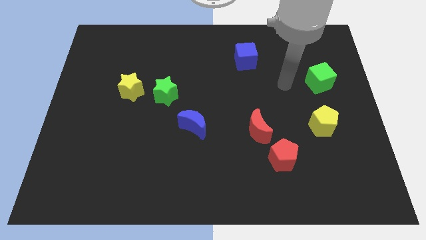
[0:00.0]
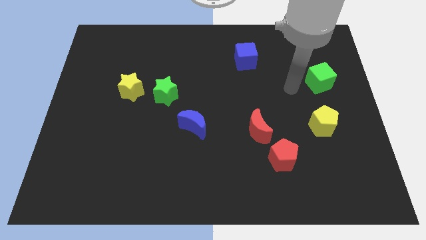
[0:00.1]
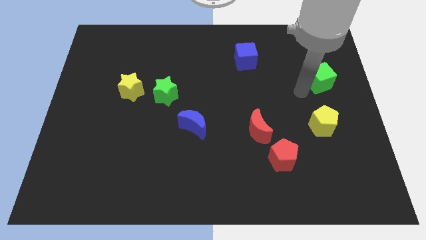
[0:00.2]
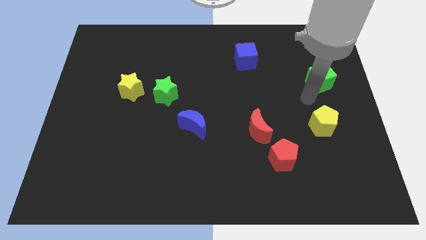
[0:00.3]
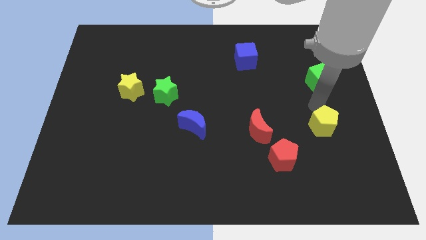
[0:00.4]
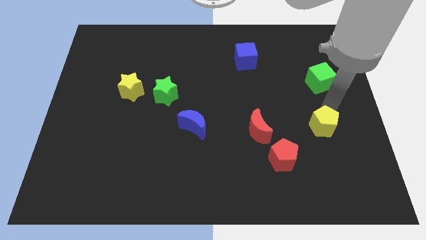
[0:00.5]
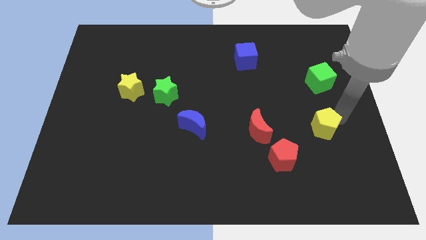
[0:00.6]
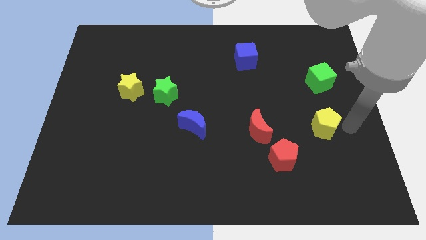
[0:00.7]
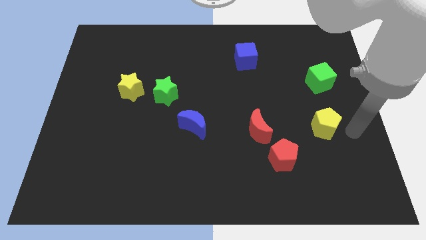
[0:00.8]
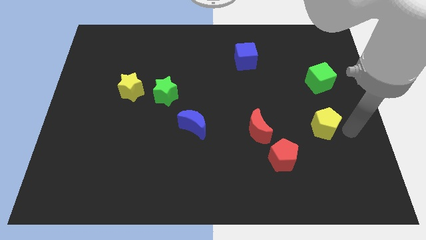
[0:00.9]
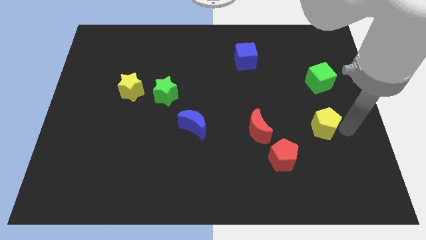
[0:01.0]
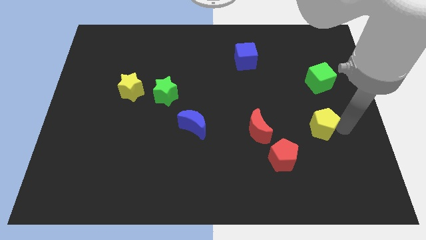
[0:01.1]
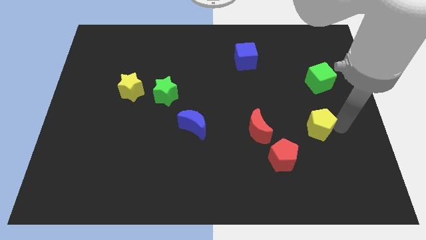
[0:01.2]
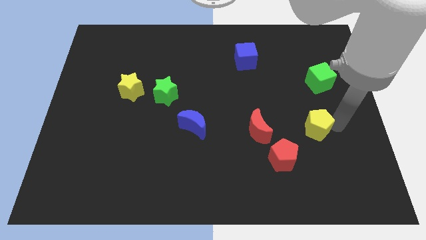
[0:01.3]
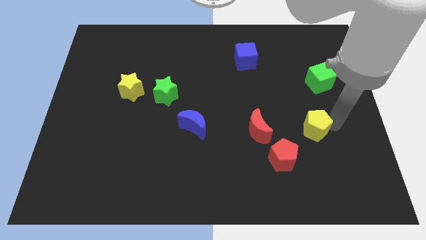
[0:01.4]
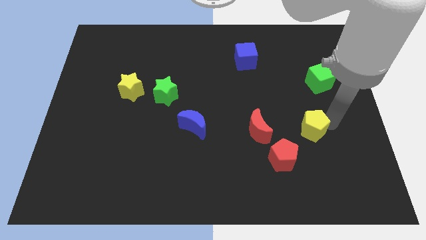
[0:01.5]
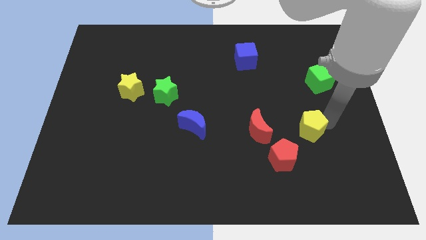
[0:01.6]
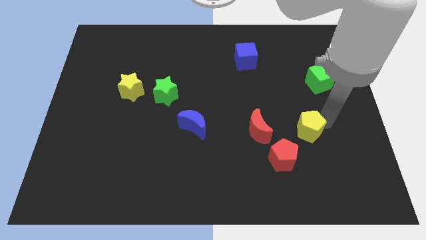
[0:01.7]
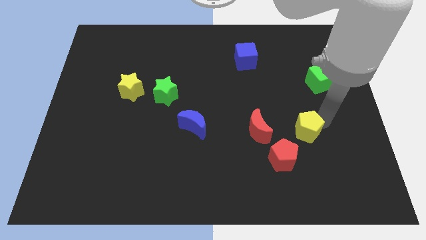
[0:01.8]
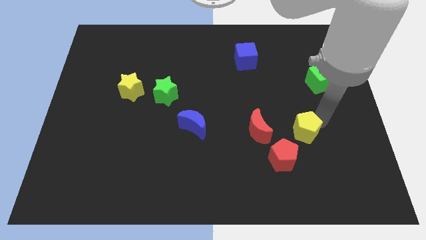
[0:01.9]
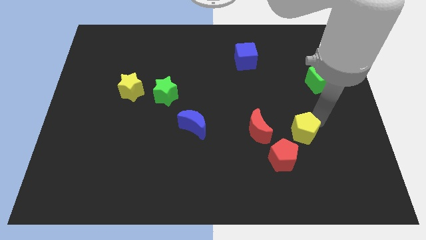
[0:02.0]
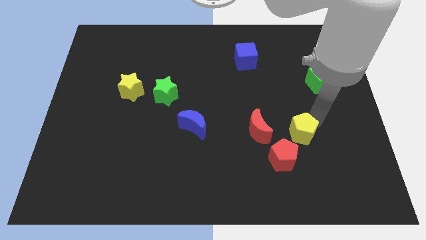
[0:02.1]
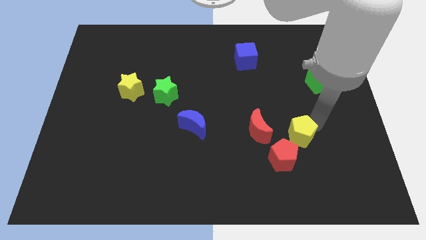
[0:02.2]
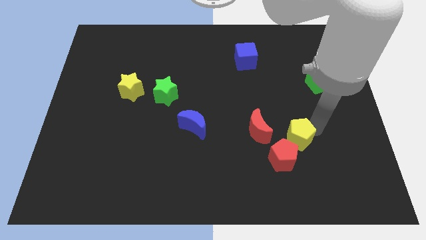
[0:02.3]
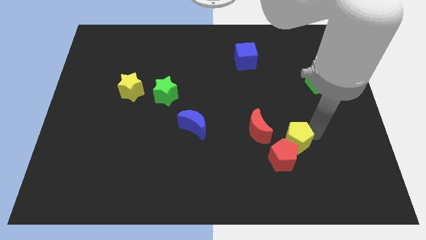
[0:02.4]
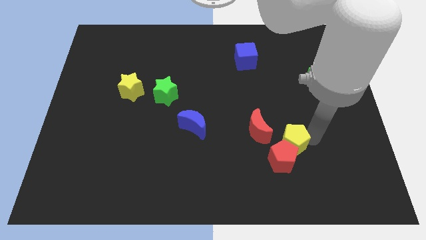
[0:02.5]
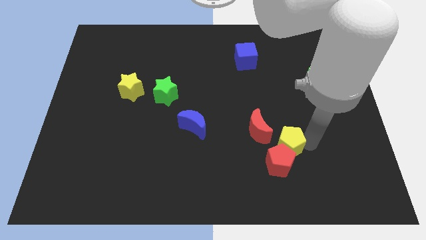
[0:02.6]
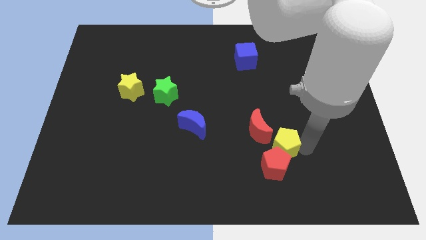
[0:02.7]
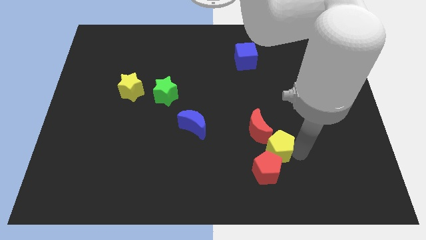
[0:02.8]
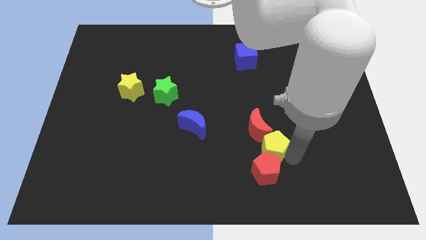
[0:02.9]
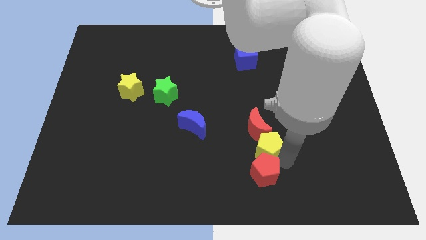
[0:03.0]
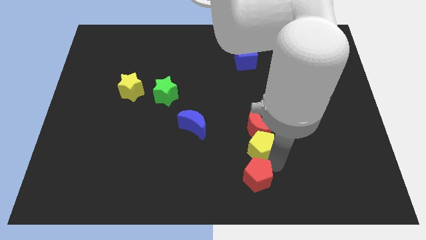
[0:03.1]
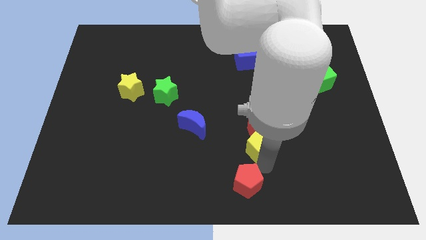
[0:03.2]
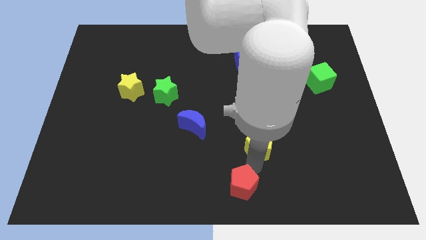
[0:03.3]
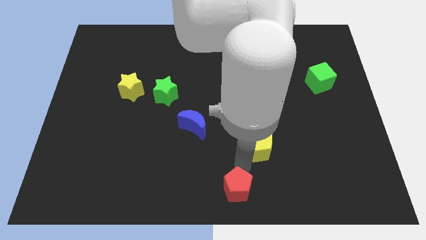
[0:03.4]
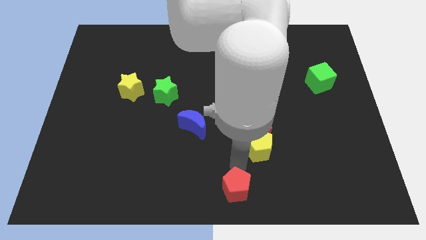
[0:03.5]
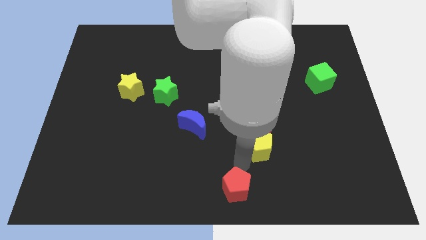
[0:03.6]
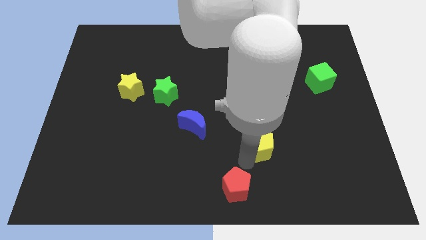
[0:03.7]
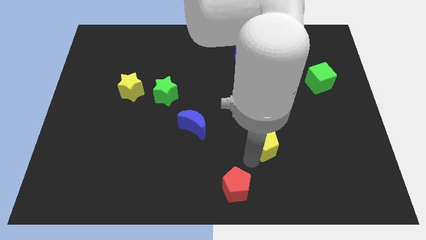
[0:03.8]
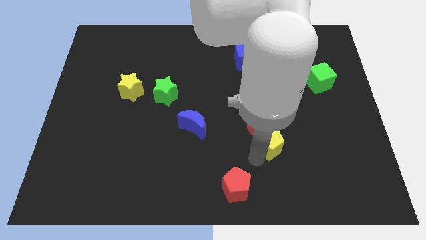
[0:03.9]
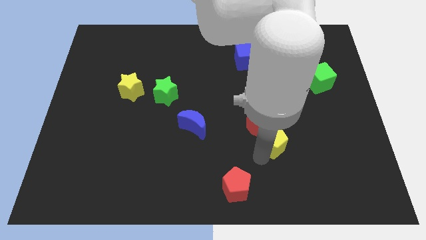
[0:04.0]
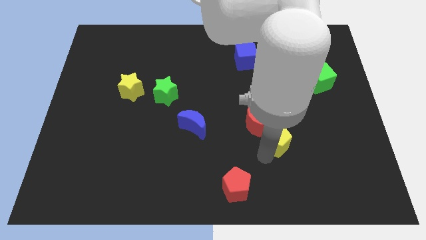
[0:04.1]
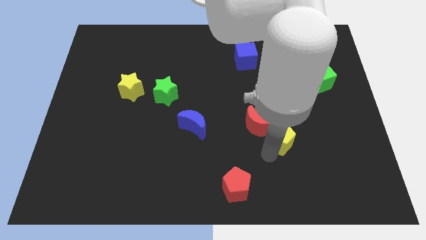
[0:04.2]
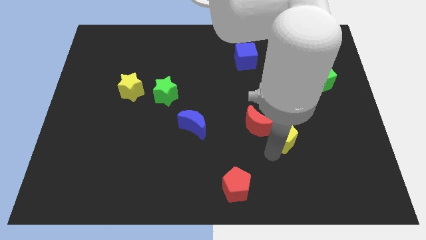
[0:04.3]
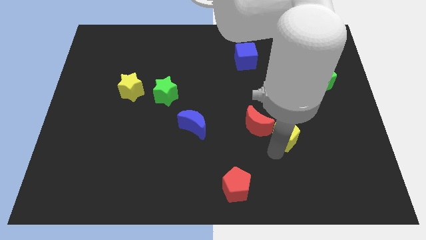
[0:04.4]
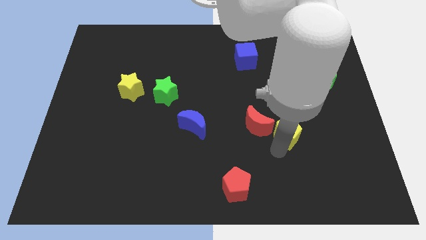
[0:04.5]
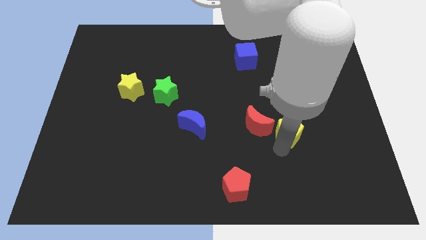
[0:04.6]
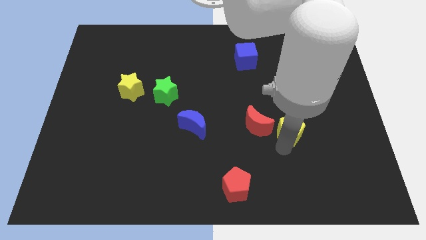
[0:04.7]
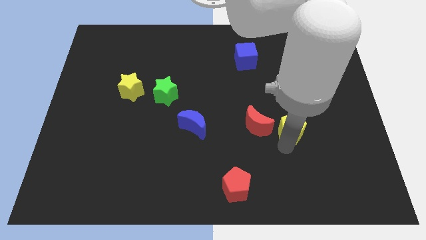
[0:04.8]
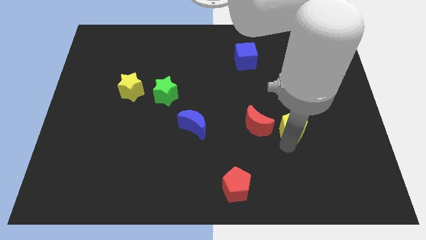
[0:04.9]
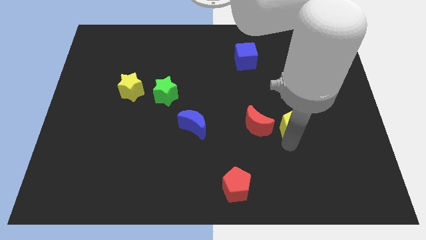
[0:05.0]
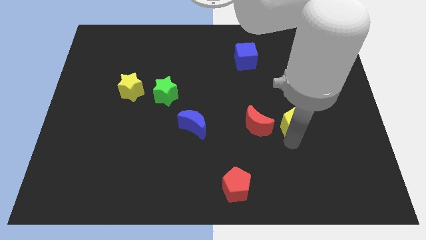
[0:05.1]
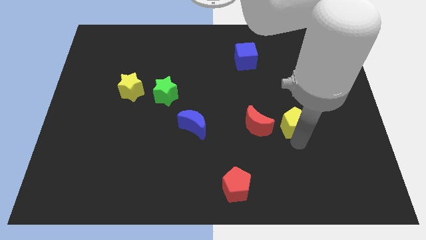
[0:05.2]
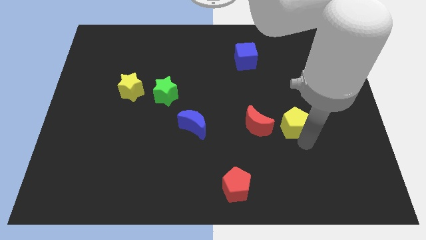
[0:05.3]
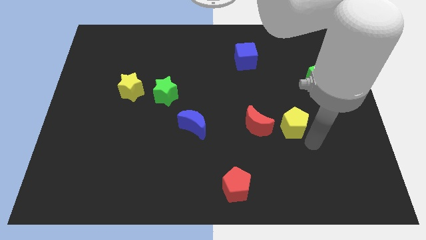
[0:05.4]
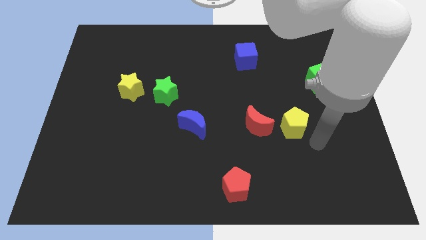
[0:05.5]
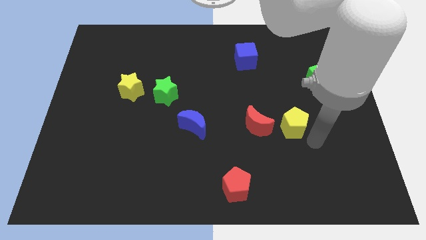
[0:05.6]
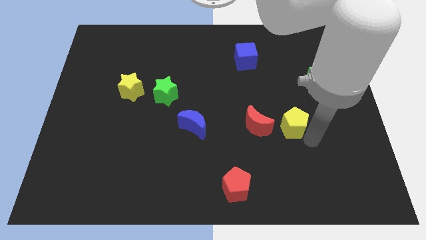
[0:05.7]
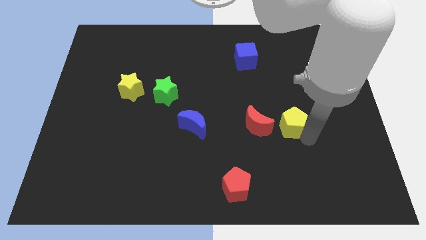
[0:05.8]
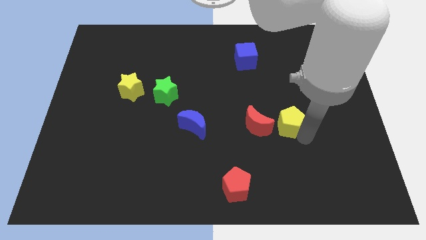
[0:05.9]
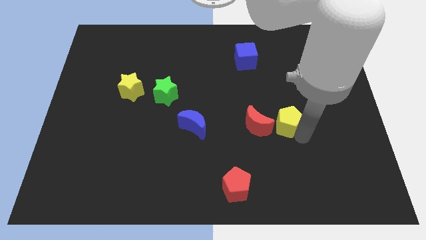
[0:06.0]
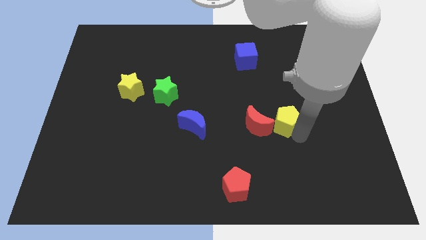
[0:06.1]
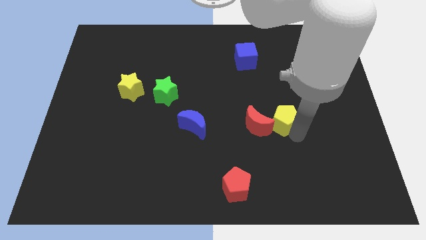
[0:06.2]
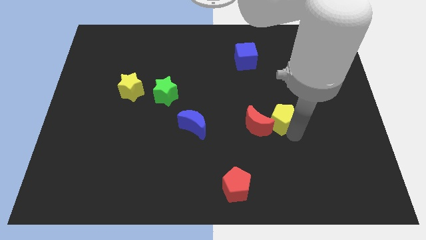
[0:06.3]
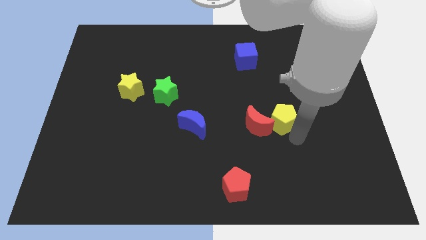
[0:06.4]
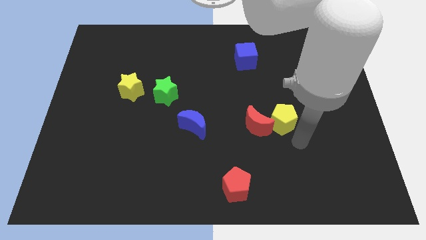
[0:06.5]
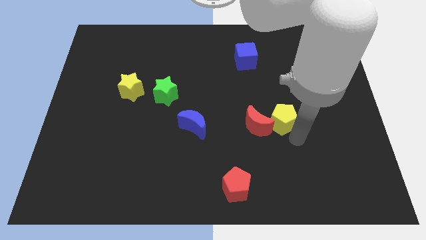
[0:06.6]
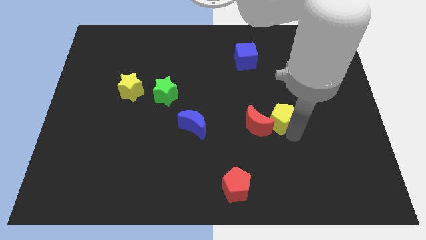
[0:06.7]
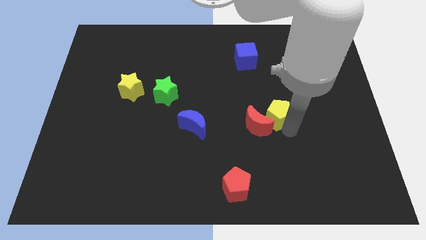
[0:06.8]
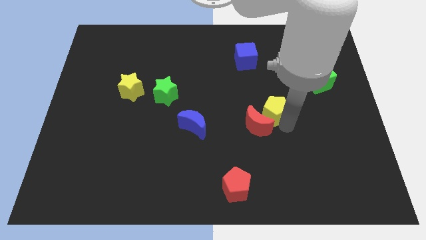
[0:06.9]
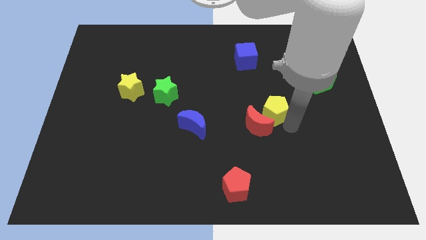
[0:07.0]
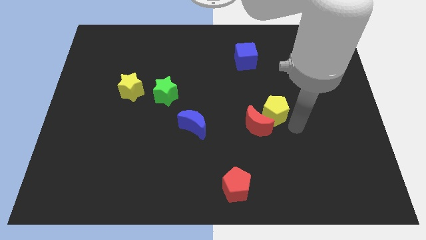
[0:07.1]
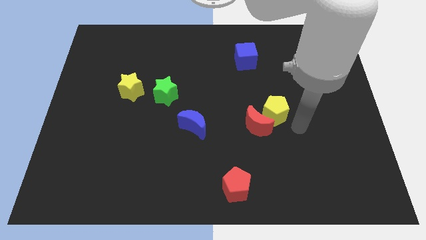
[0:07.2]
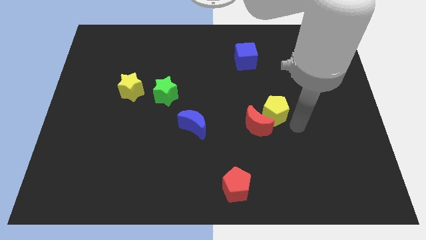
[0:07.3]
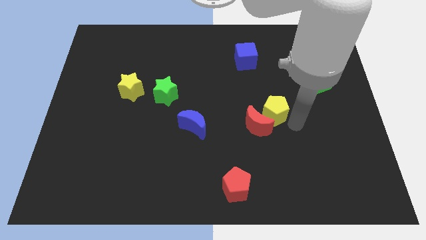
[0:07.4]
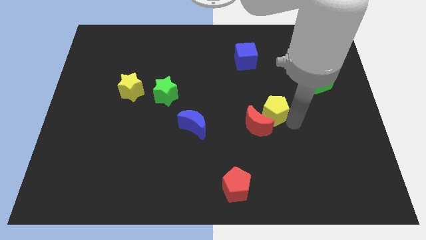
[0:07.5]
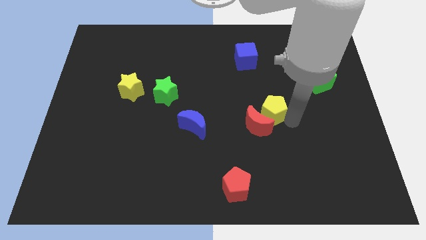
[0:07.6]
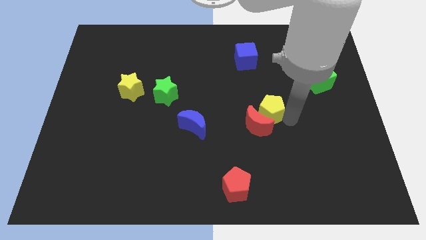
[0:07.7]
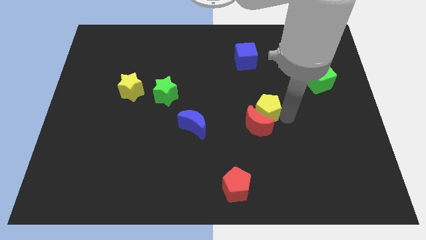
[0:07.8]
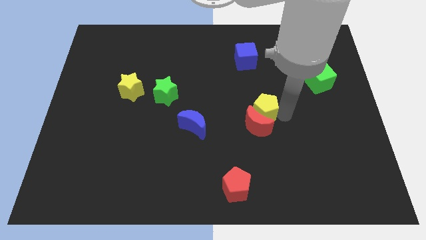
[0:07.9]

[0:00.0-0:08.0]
move the yellow pentagon to the center of the board
